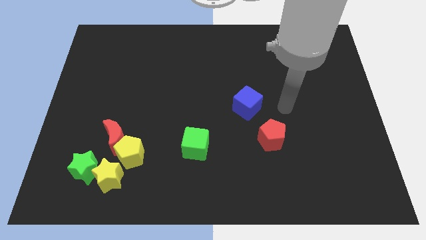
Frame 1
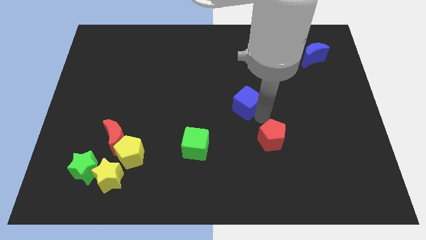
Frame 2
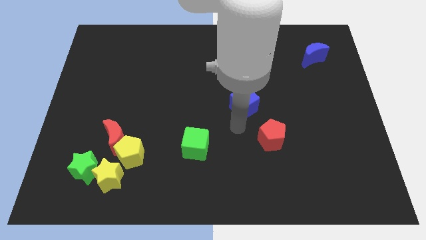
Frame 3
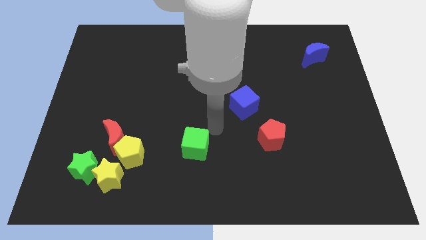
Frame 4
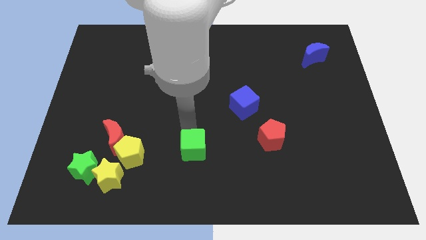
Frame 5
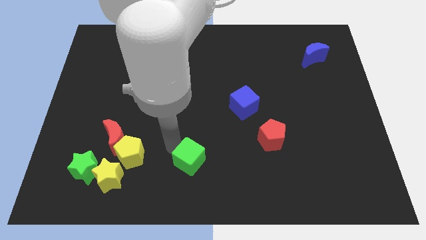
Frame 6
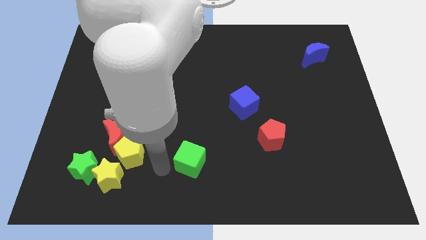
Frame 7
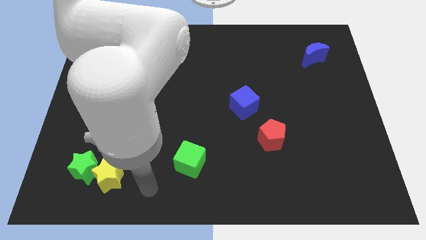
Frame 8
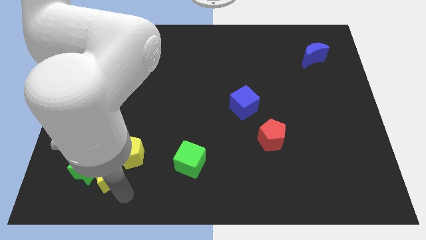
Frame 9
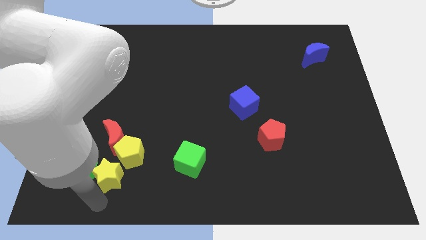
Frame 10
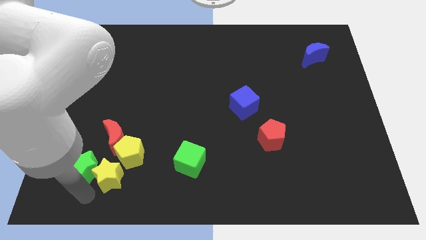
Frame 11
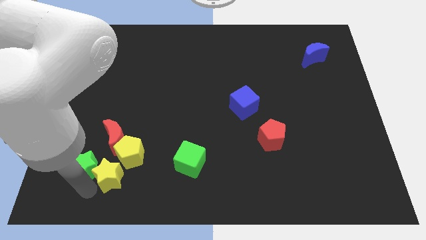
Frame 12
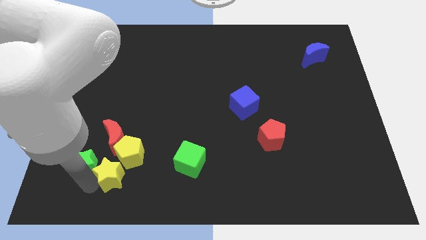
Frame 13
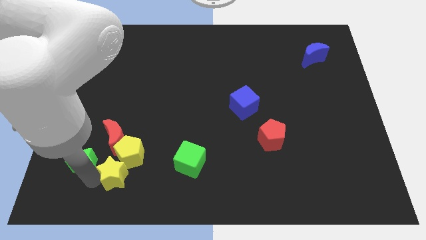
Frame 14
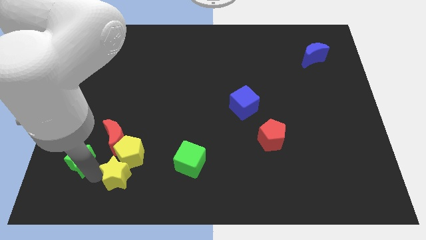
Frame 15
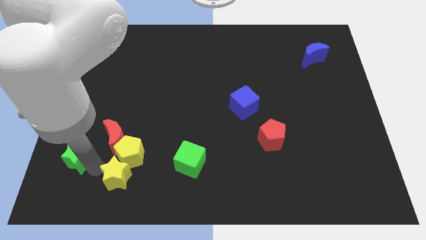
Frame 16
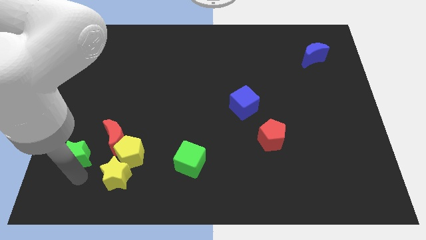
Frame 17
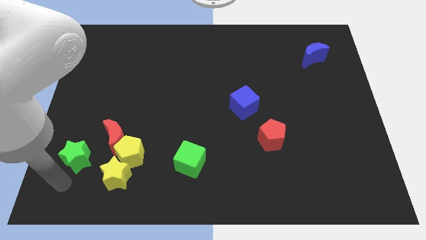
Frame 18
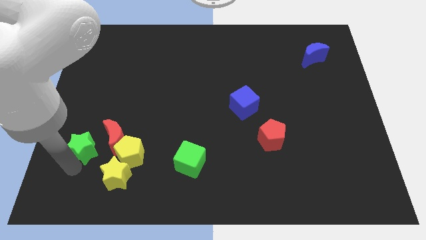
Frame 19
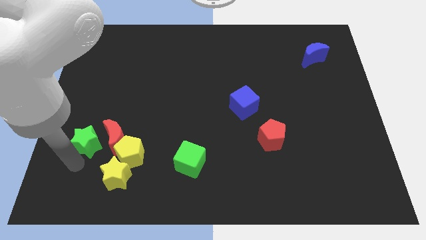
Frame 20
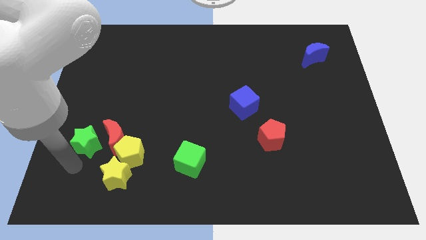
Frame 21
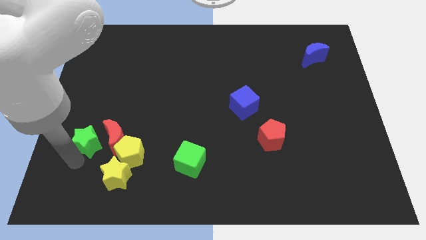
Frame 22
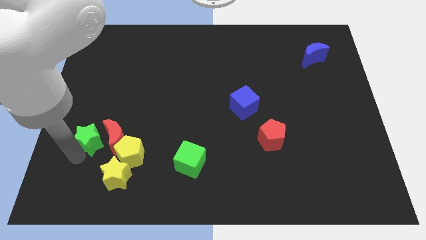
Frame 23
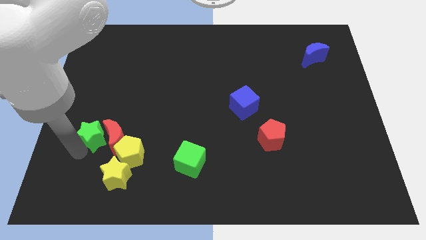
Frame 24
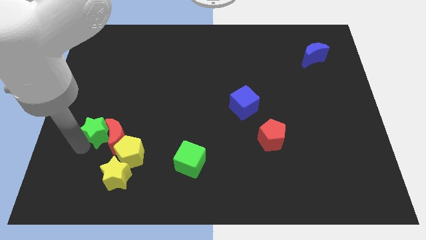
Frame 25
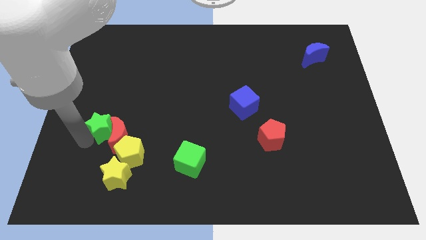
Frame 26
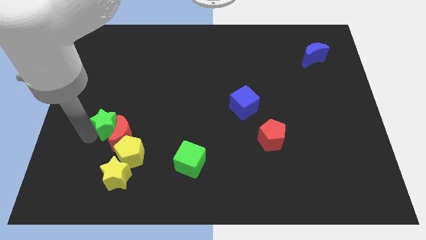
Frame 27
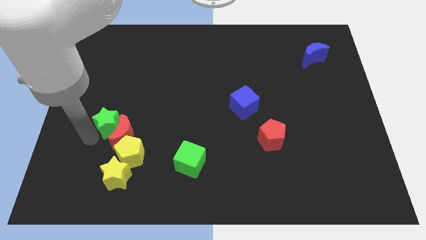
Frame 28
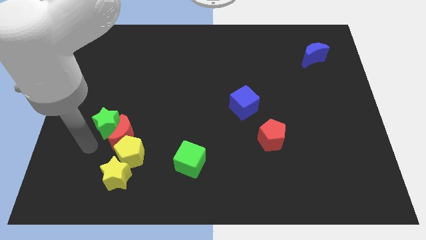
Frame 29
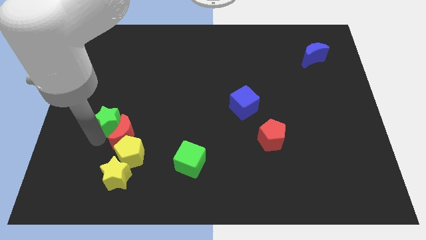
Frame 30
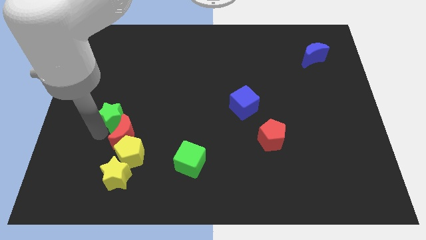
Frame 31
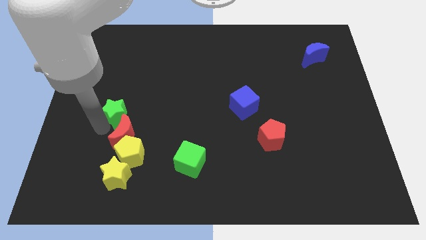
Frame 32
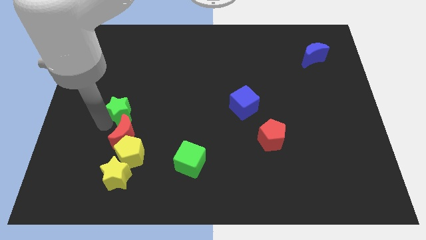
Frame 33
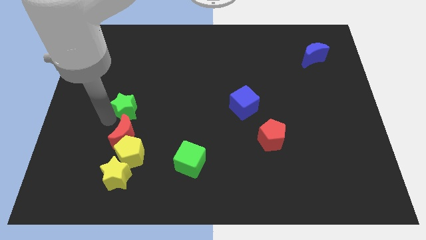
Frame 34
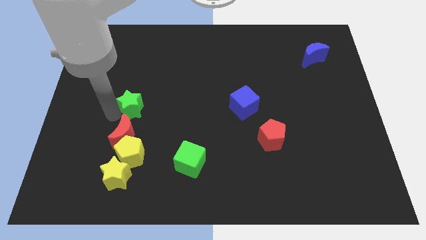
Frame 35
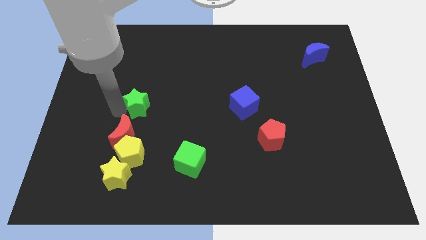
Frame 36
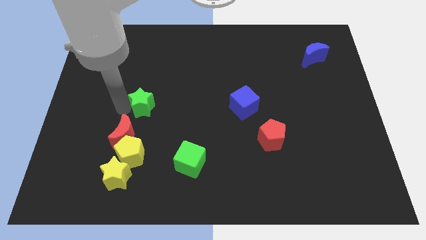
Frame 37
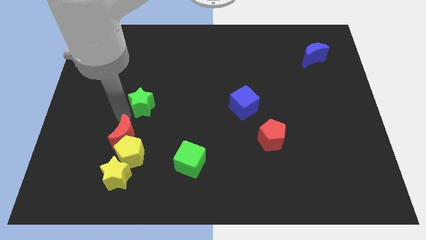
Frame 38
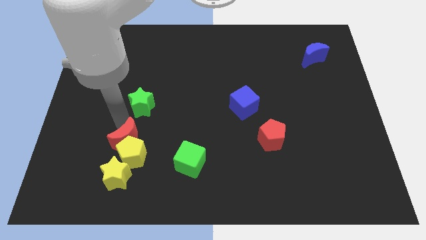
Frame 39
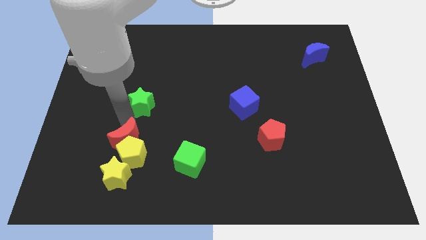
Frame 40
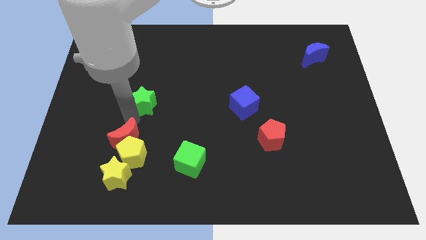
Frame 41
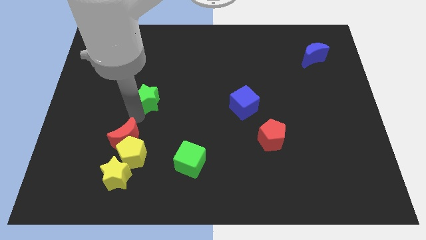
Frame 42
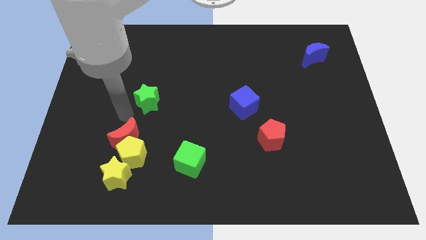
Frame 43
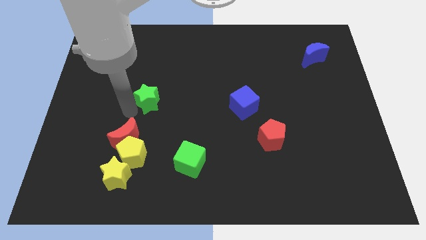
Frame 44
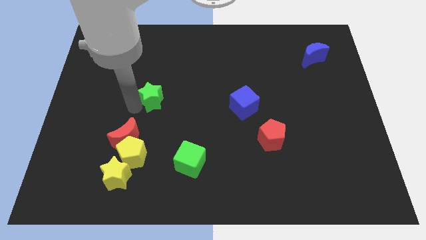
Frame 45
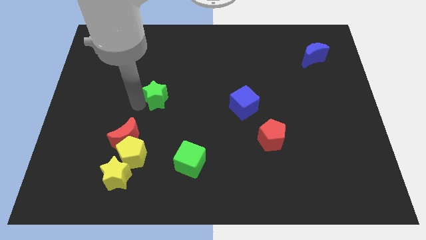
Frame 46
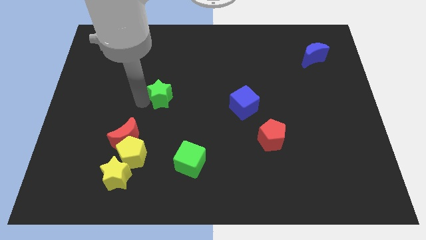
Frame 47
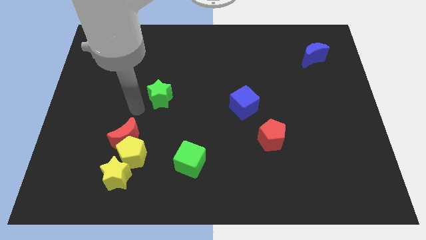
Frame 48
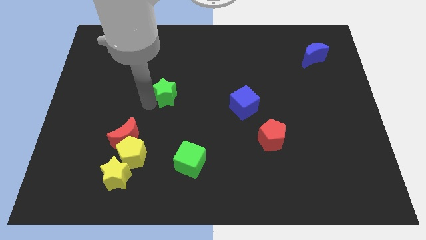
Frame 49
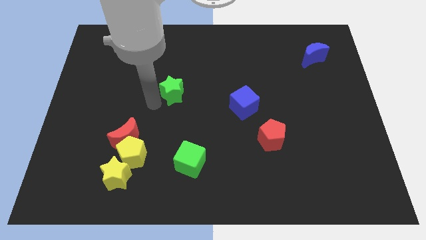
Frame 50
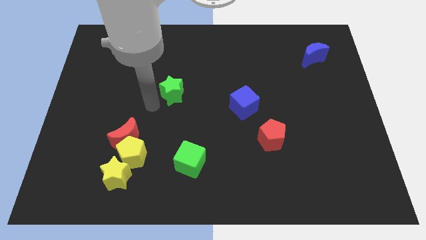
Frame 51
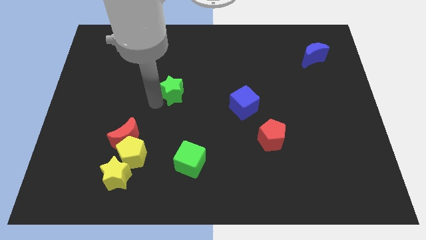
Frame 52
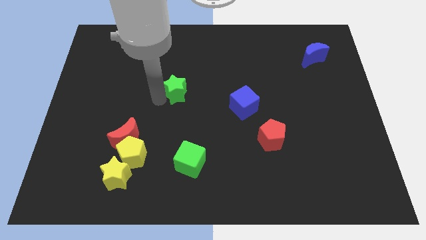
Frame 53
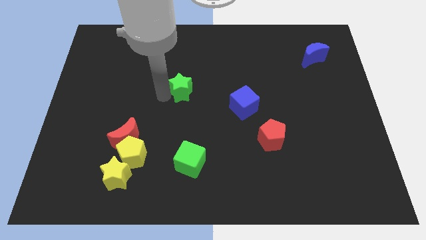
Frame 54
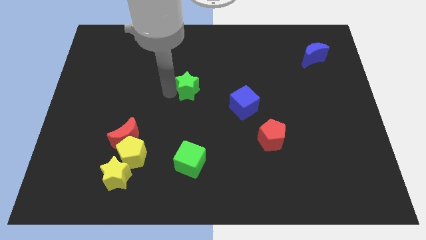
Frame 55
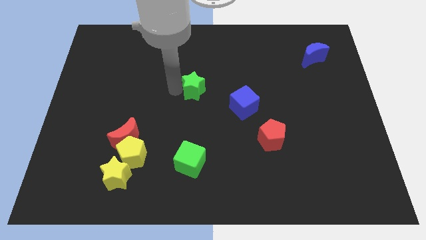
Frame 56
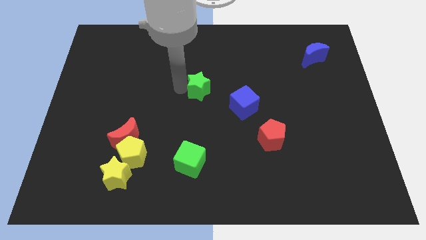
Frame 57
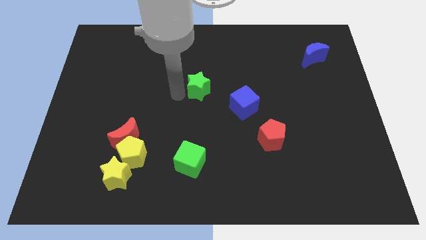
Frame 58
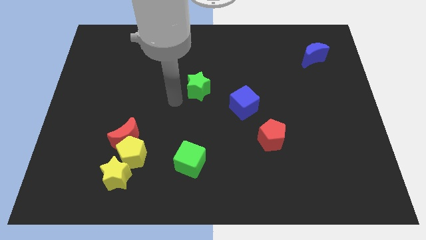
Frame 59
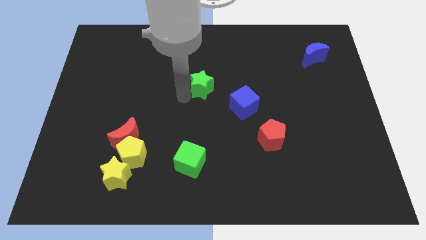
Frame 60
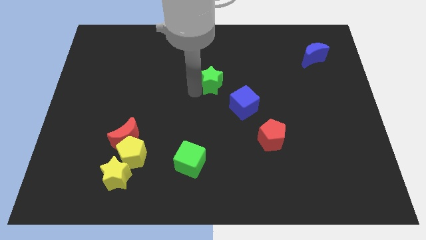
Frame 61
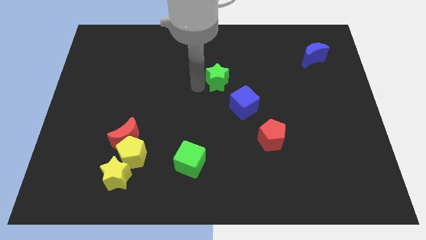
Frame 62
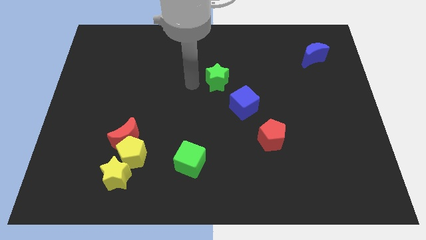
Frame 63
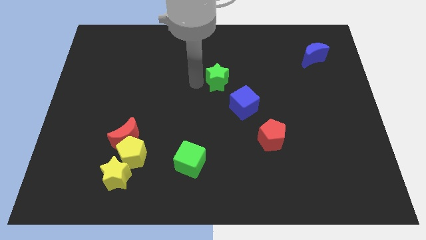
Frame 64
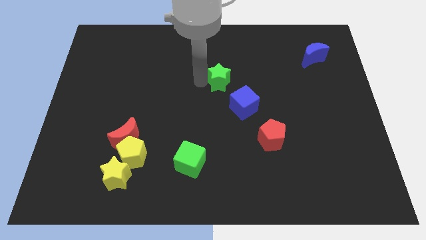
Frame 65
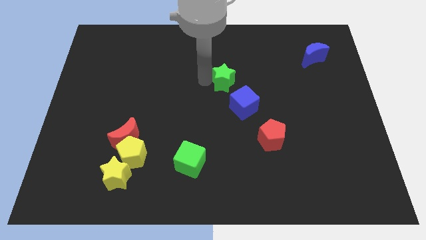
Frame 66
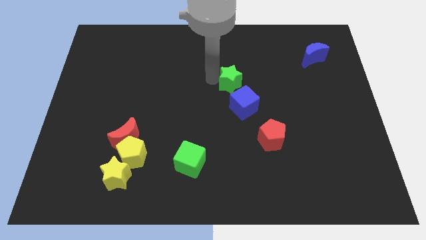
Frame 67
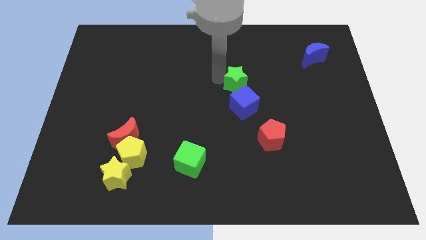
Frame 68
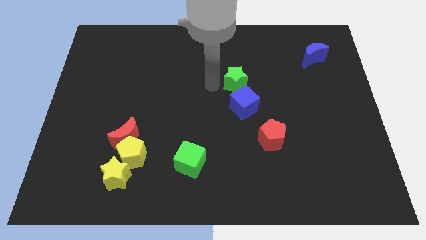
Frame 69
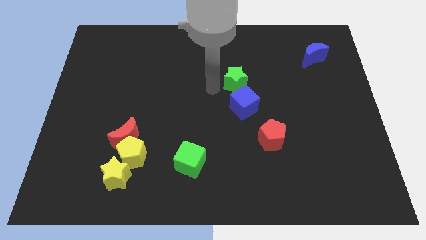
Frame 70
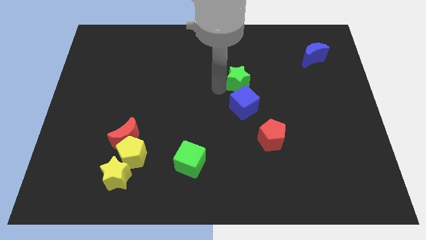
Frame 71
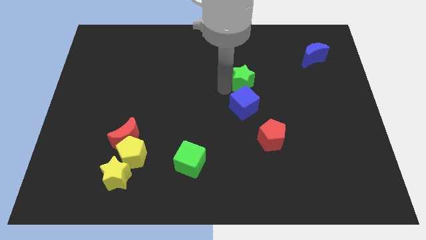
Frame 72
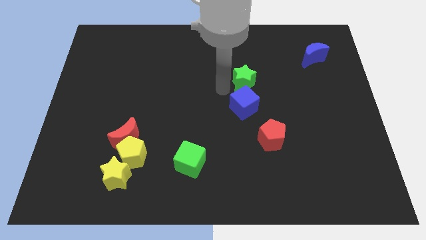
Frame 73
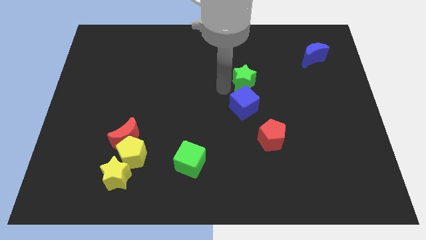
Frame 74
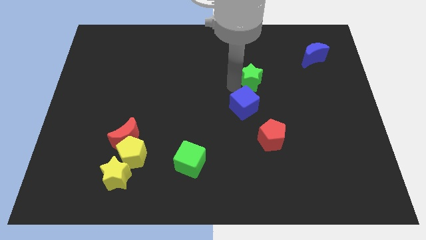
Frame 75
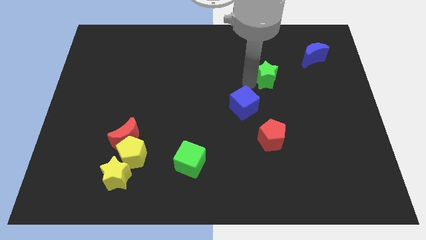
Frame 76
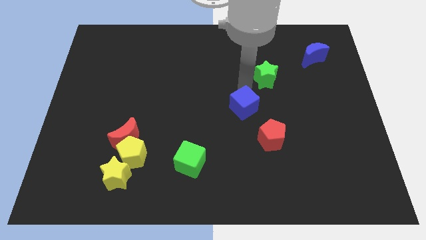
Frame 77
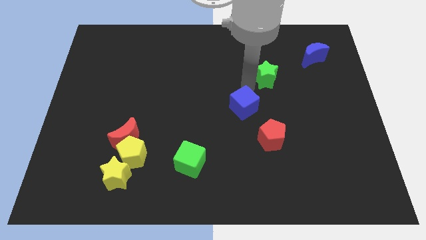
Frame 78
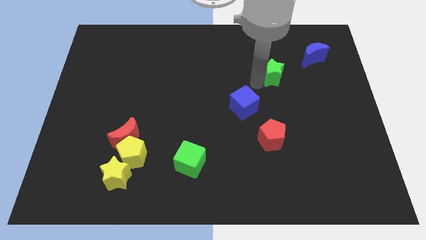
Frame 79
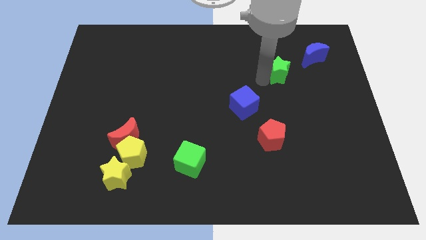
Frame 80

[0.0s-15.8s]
move the green star diagonally down and to the left of the blue moon
